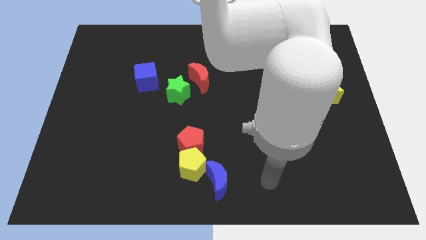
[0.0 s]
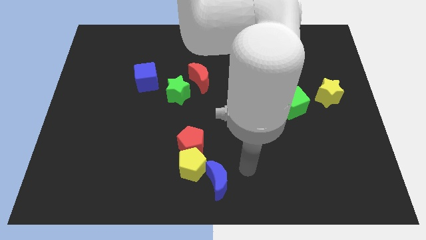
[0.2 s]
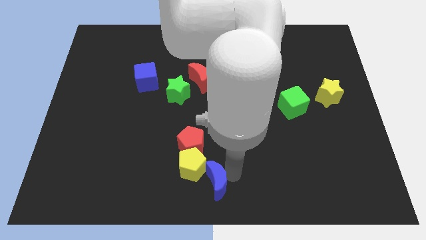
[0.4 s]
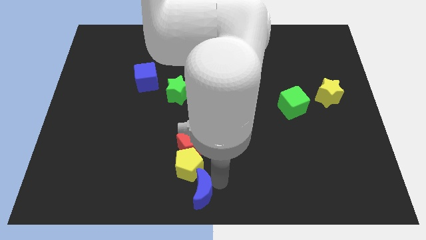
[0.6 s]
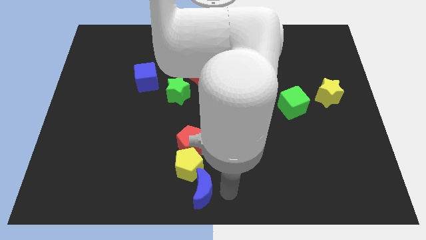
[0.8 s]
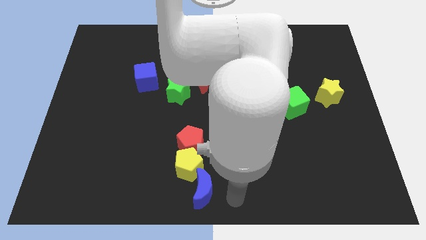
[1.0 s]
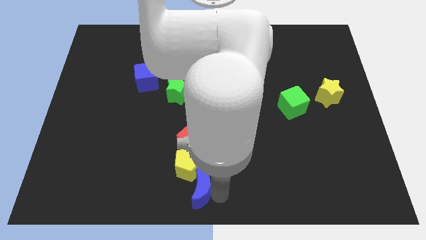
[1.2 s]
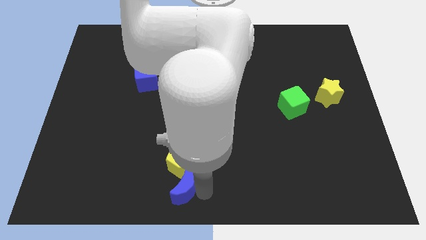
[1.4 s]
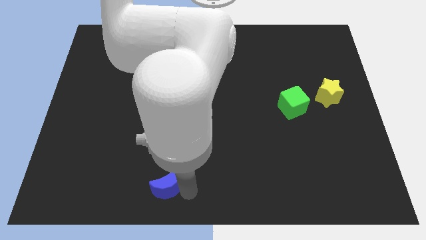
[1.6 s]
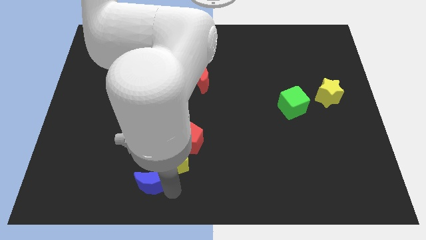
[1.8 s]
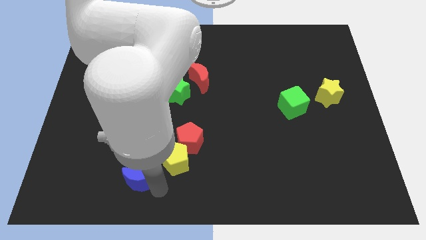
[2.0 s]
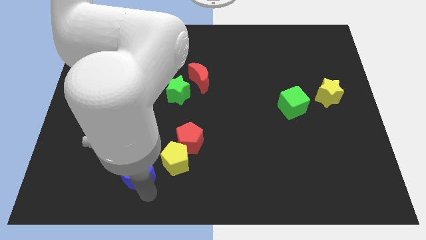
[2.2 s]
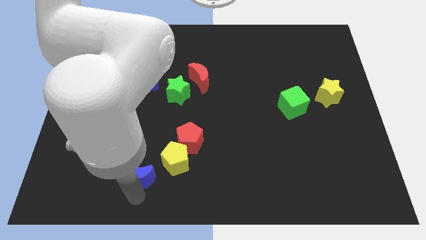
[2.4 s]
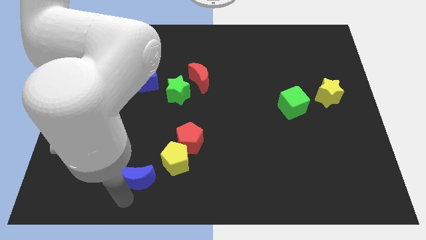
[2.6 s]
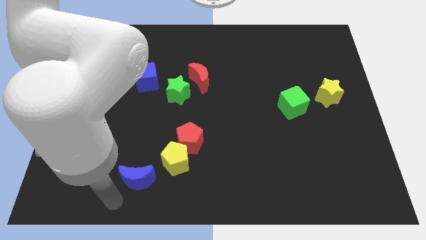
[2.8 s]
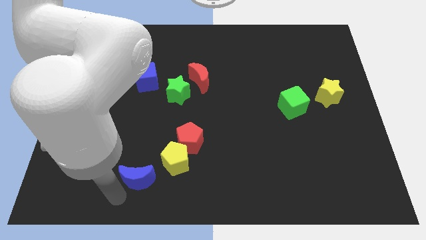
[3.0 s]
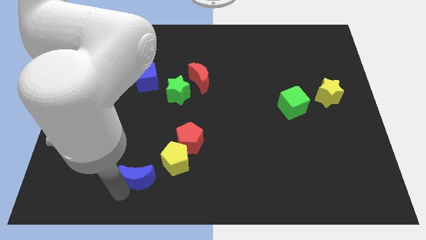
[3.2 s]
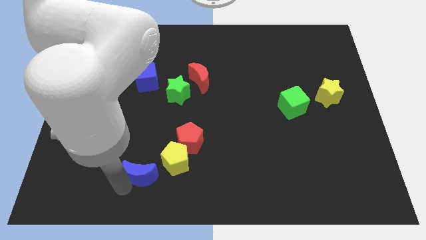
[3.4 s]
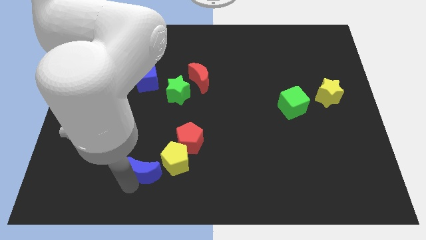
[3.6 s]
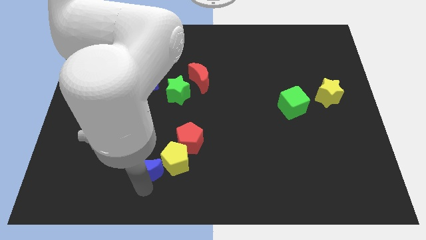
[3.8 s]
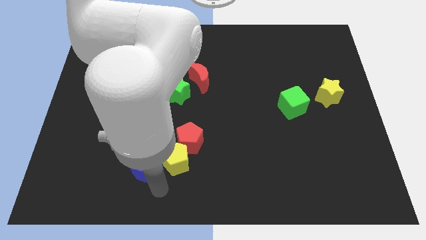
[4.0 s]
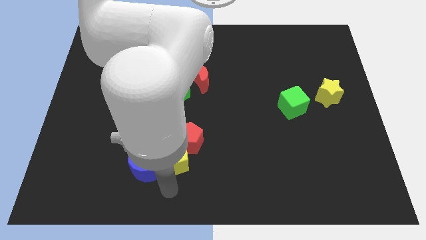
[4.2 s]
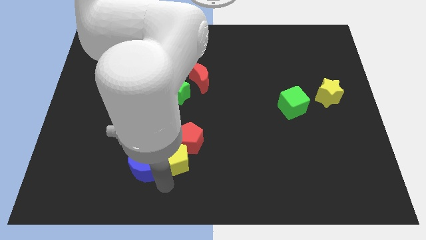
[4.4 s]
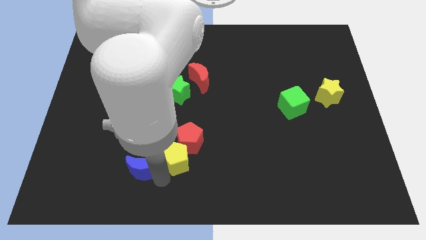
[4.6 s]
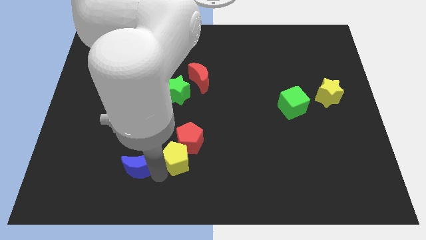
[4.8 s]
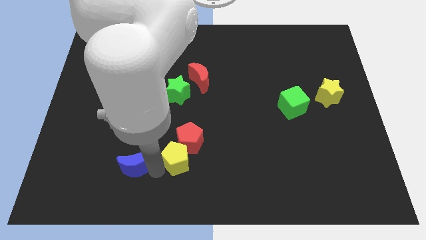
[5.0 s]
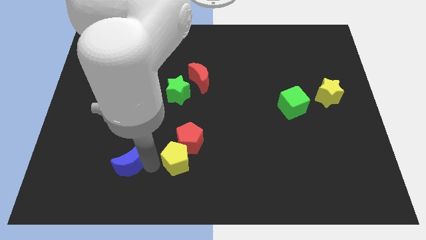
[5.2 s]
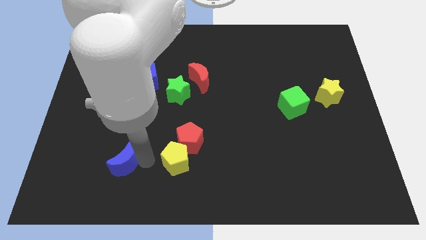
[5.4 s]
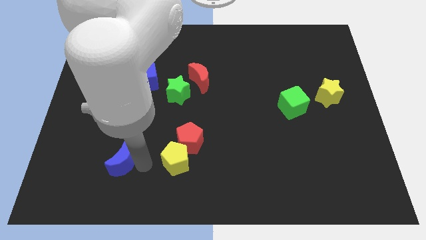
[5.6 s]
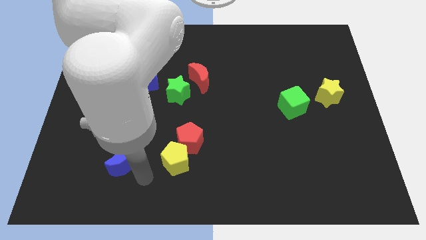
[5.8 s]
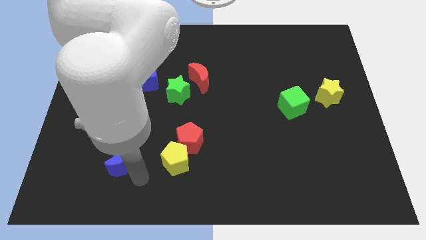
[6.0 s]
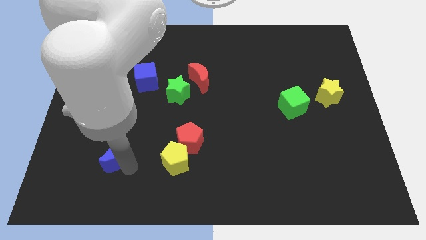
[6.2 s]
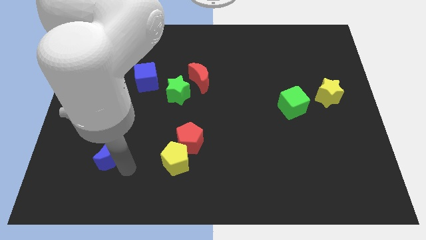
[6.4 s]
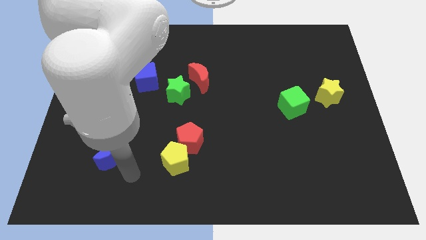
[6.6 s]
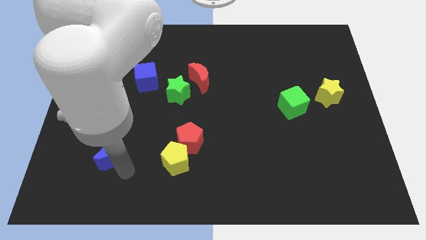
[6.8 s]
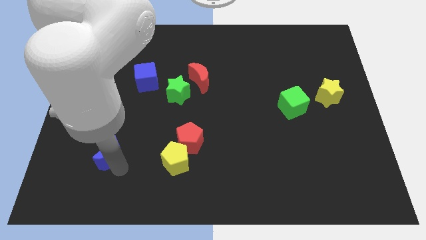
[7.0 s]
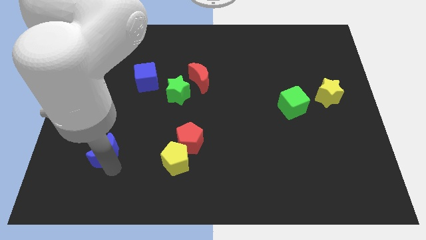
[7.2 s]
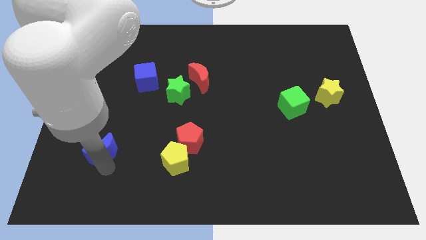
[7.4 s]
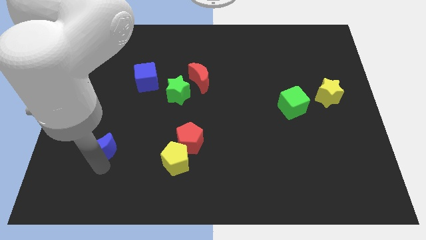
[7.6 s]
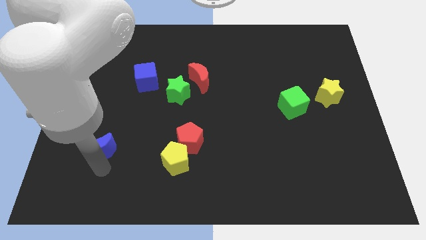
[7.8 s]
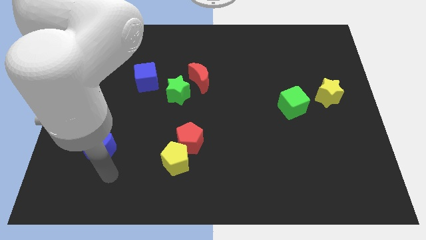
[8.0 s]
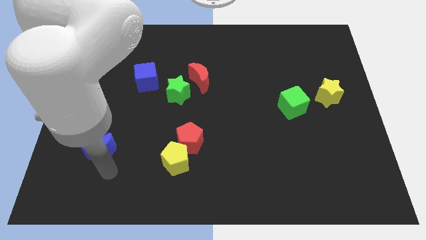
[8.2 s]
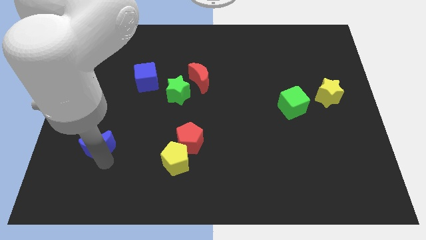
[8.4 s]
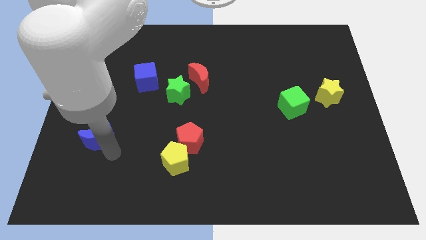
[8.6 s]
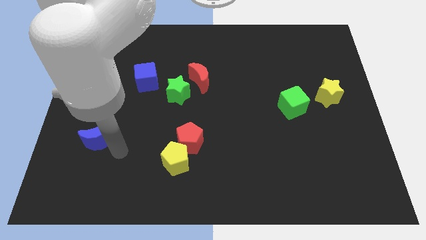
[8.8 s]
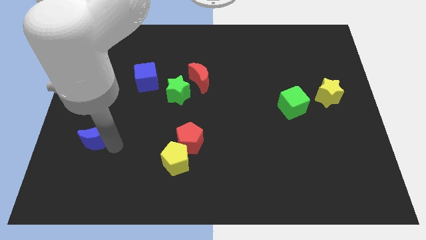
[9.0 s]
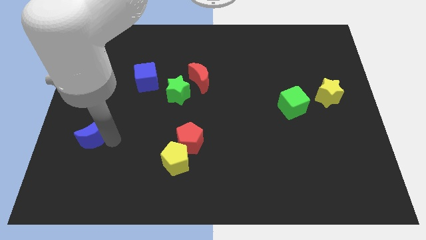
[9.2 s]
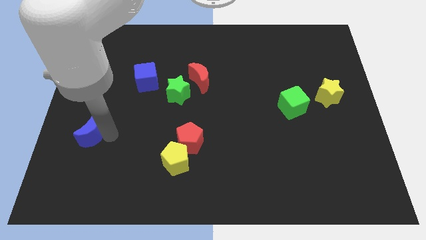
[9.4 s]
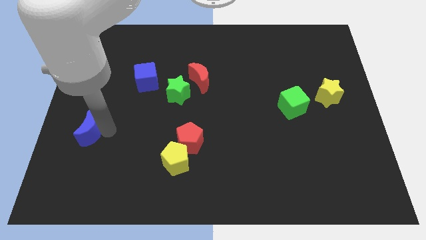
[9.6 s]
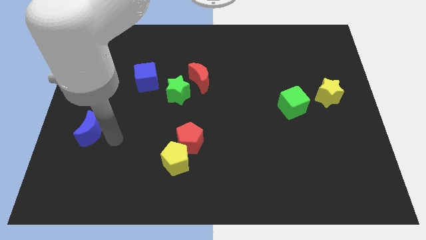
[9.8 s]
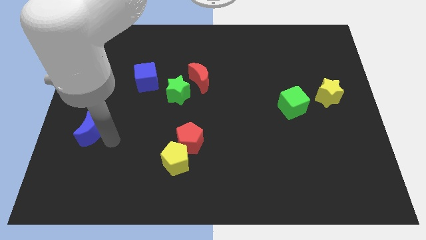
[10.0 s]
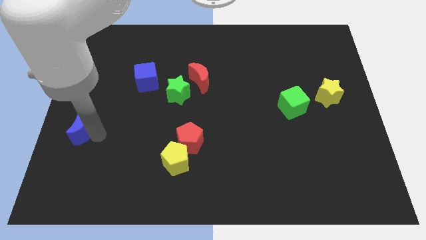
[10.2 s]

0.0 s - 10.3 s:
put the blue moon to the center left

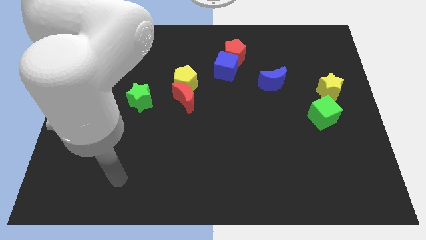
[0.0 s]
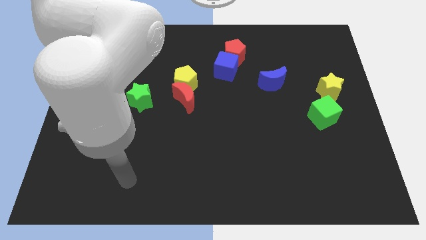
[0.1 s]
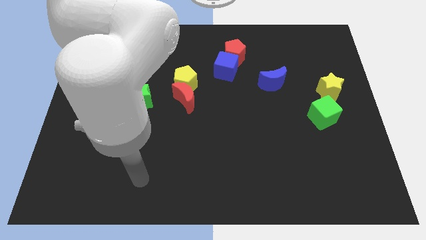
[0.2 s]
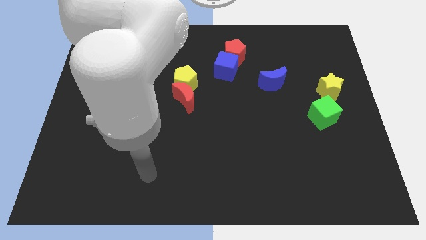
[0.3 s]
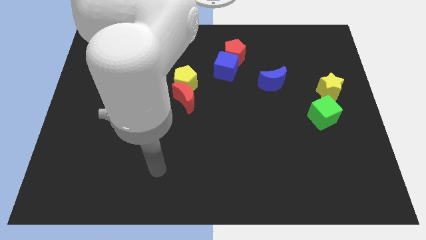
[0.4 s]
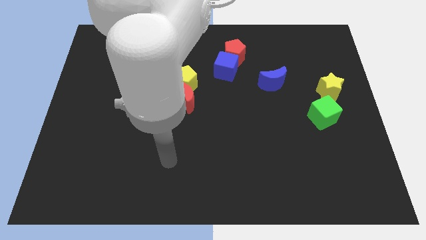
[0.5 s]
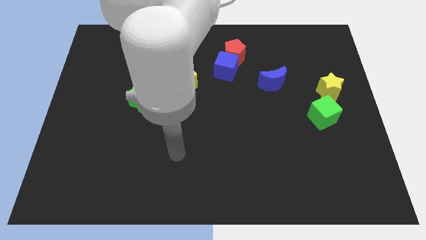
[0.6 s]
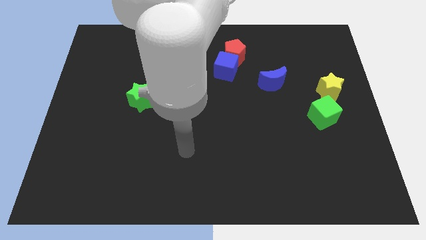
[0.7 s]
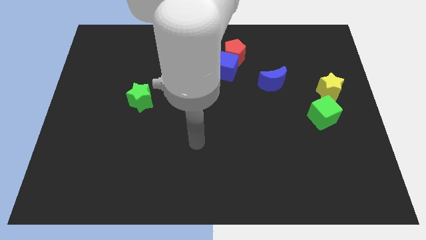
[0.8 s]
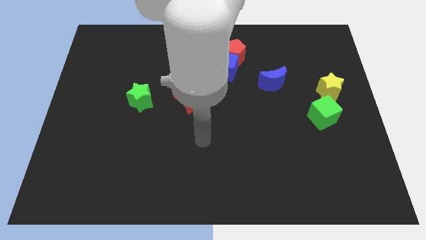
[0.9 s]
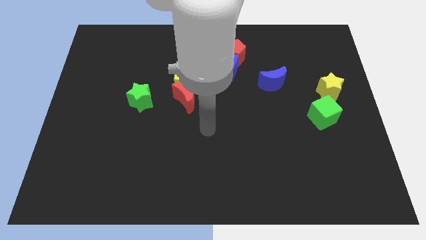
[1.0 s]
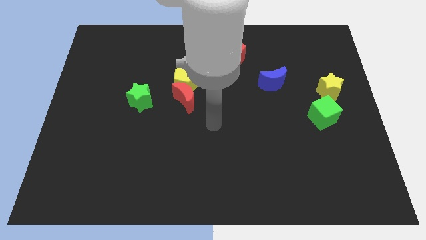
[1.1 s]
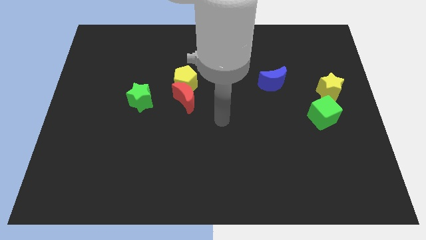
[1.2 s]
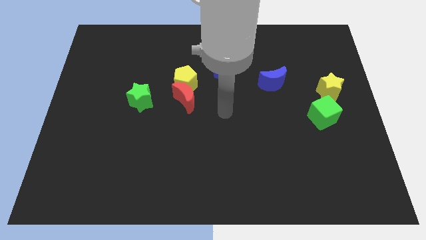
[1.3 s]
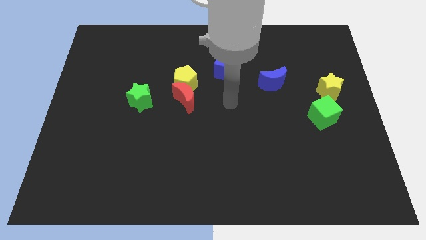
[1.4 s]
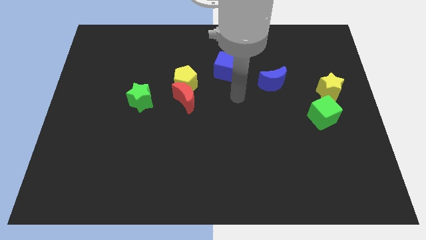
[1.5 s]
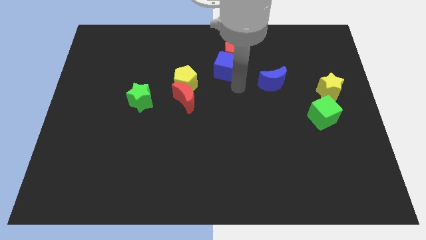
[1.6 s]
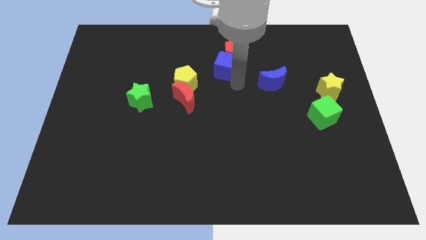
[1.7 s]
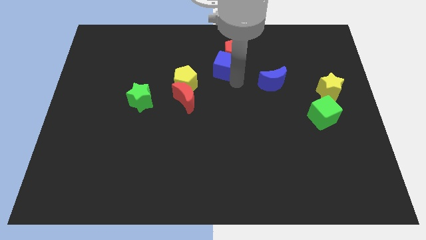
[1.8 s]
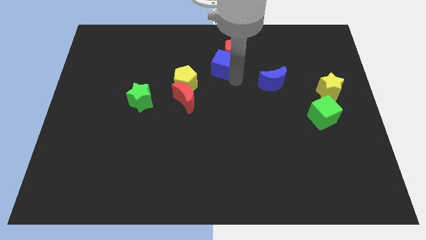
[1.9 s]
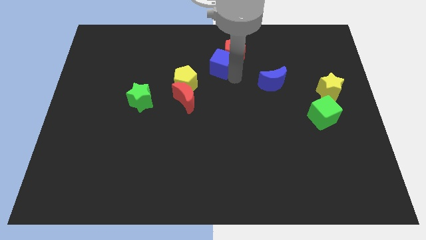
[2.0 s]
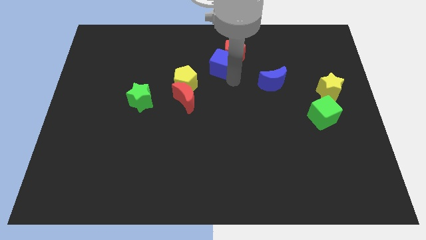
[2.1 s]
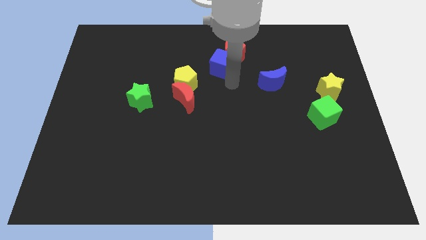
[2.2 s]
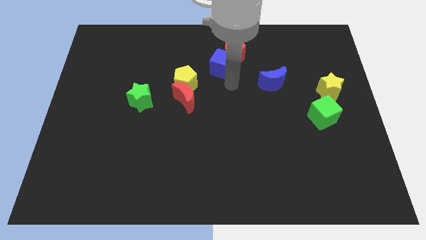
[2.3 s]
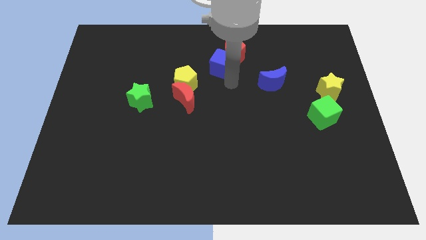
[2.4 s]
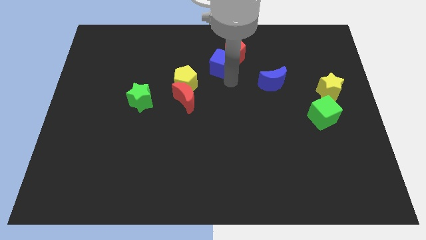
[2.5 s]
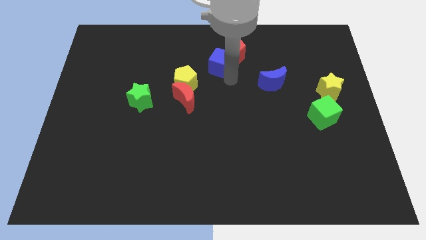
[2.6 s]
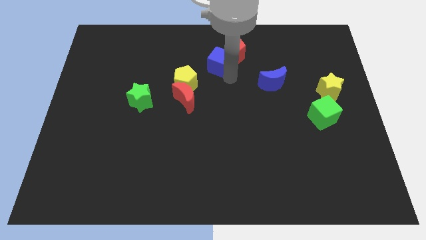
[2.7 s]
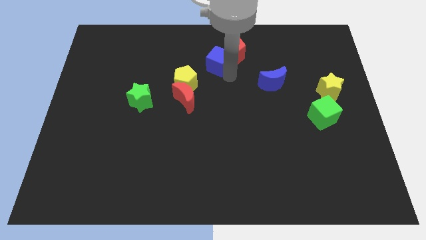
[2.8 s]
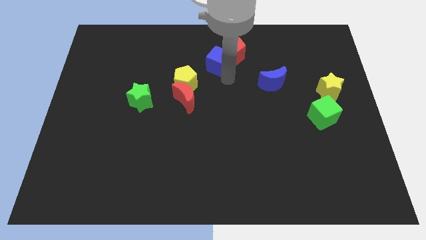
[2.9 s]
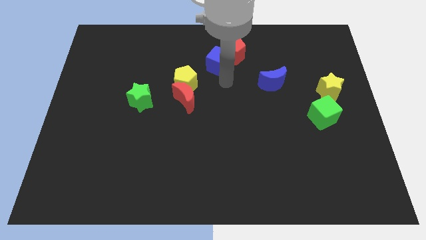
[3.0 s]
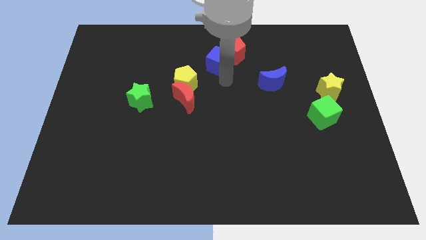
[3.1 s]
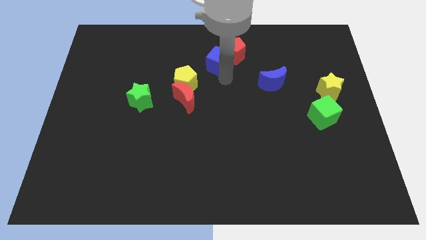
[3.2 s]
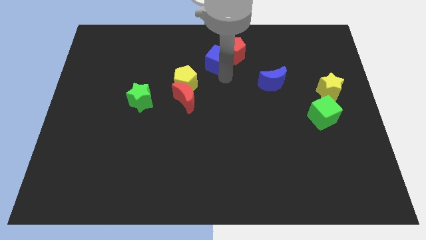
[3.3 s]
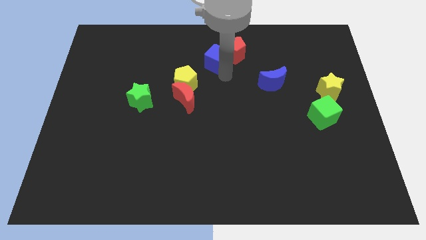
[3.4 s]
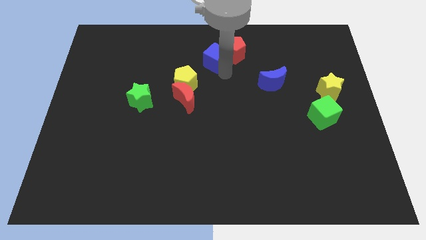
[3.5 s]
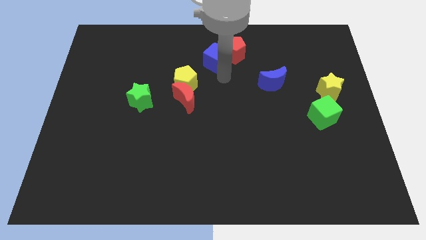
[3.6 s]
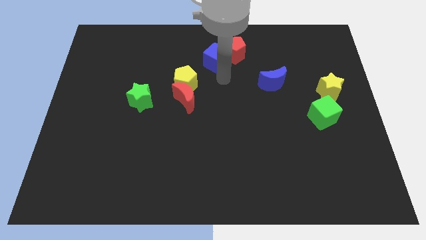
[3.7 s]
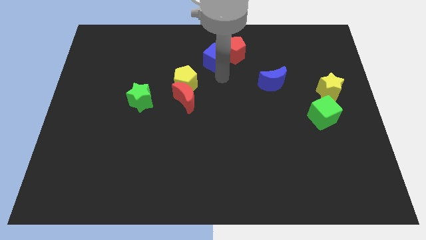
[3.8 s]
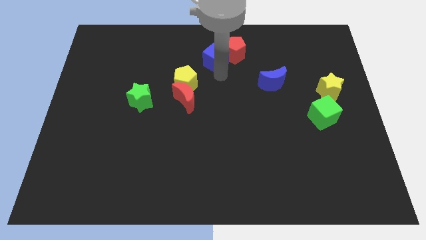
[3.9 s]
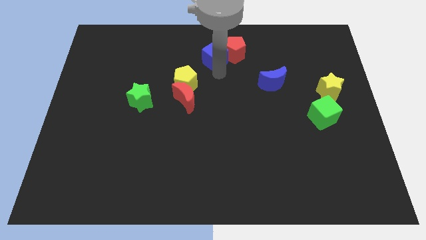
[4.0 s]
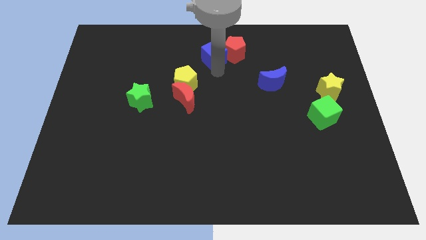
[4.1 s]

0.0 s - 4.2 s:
put the blue cube to the top
